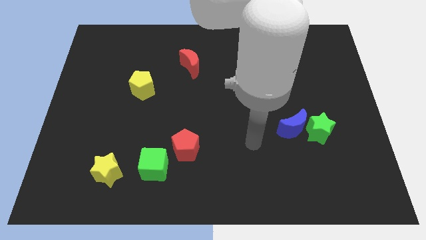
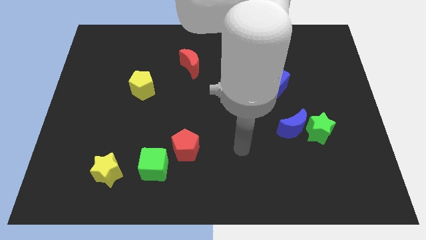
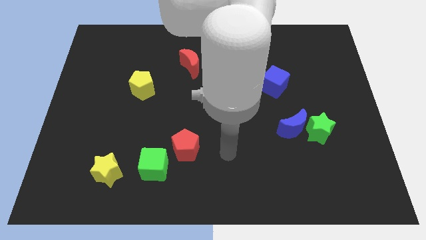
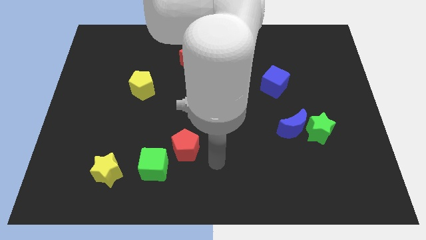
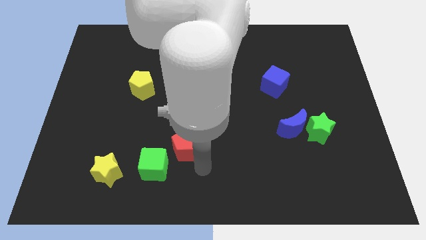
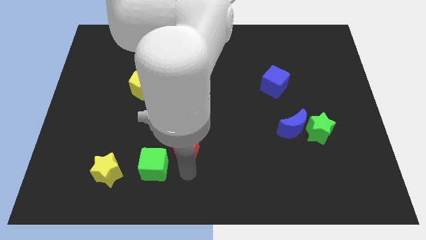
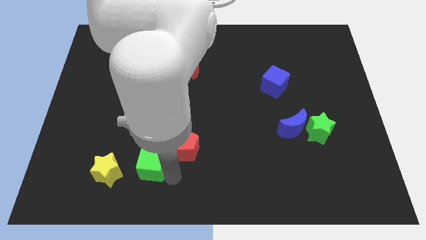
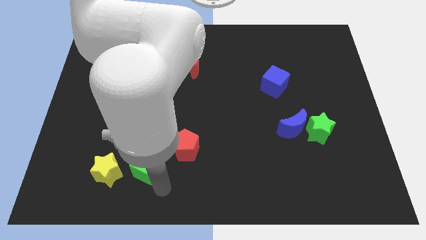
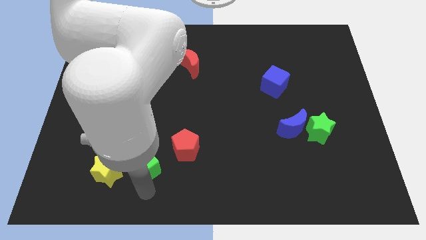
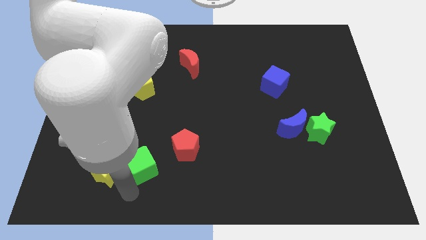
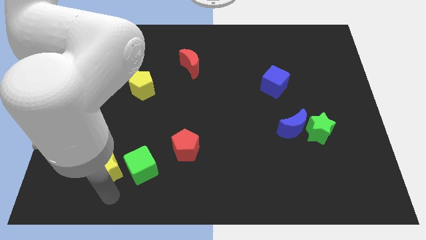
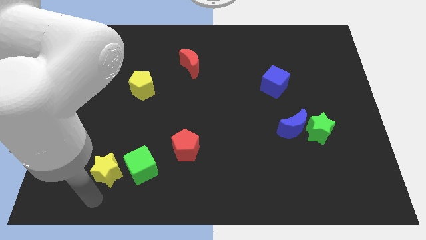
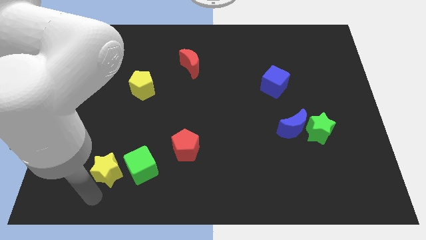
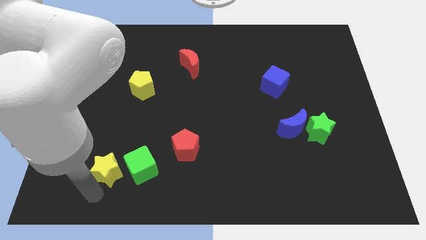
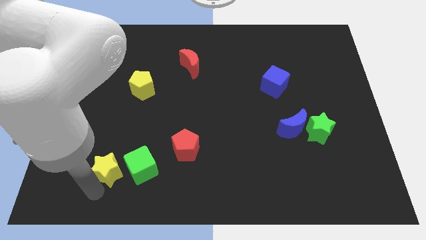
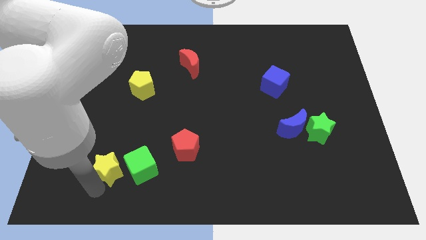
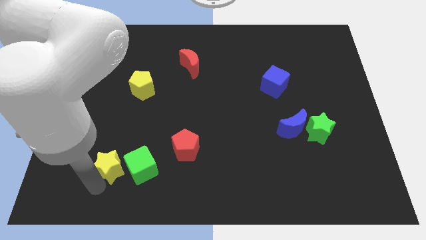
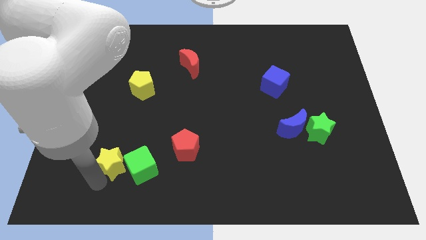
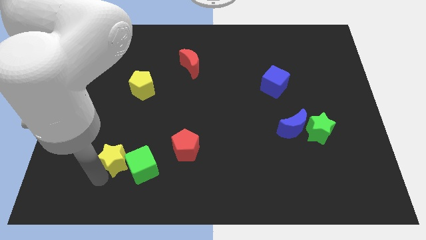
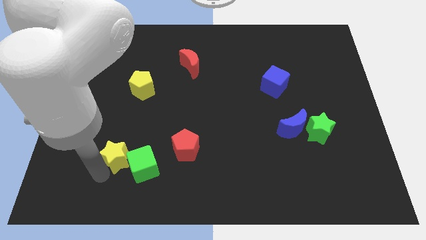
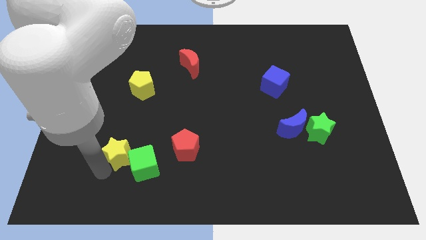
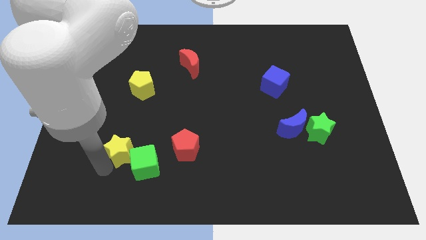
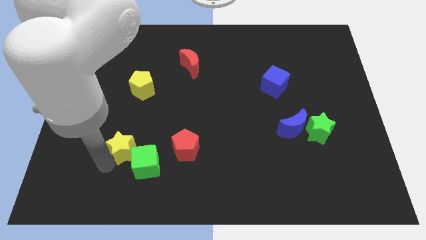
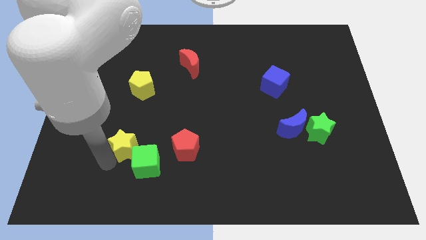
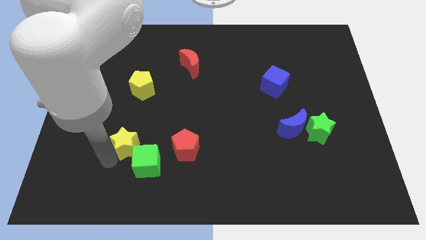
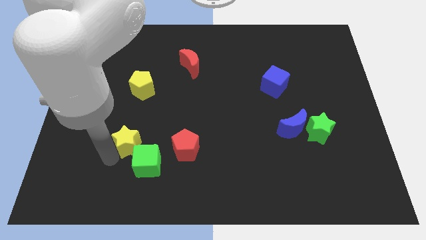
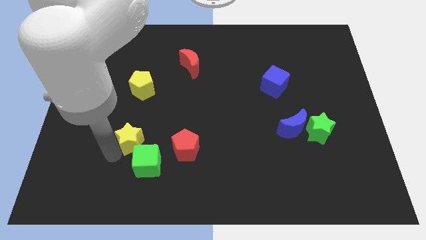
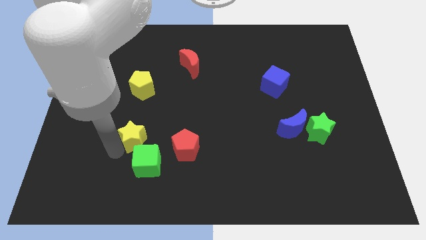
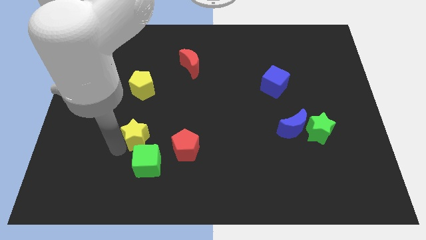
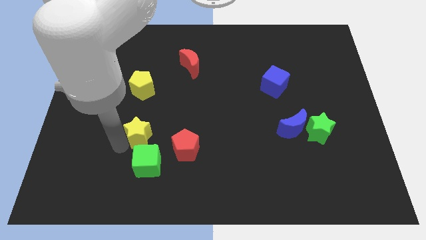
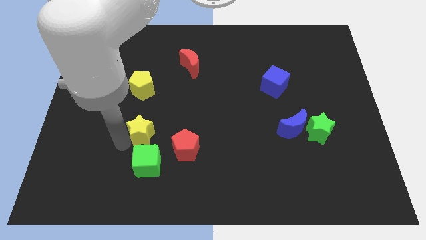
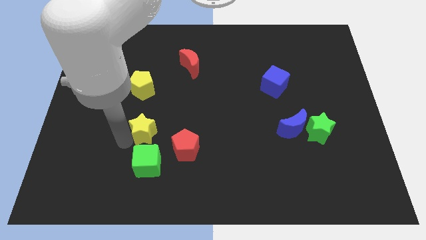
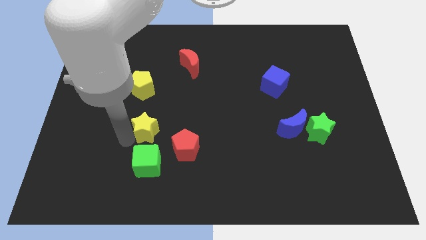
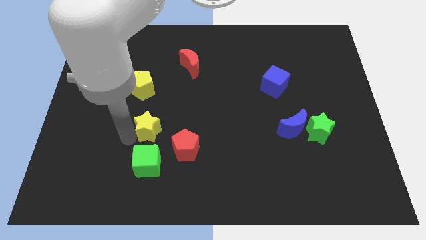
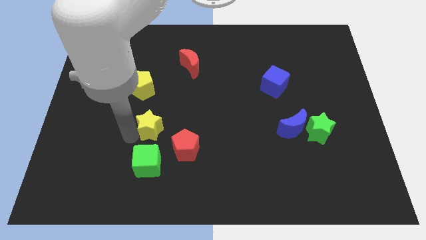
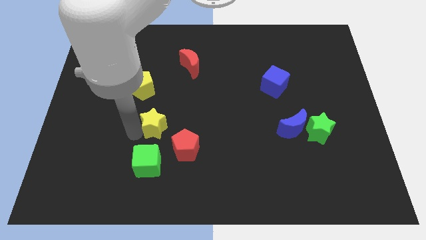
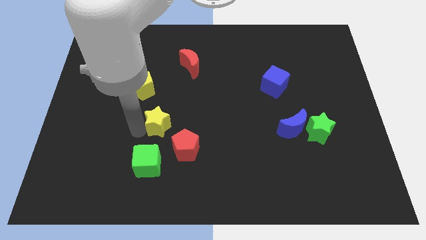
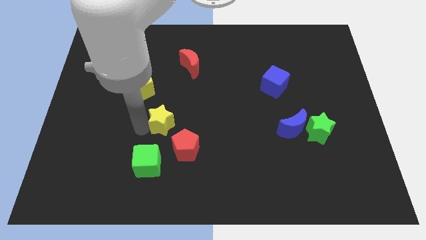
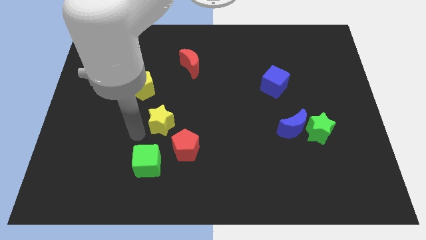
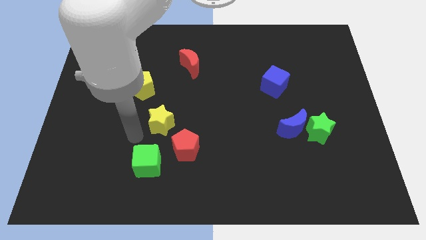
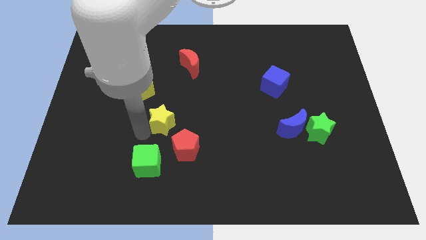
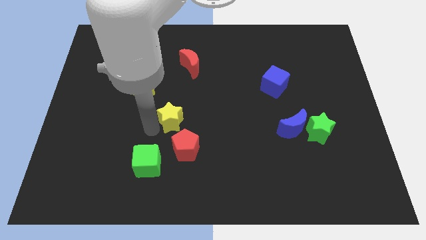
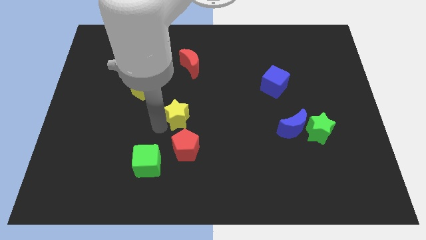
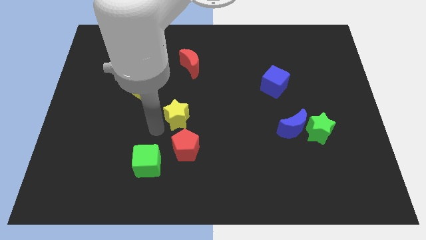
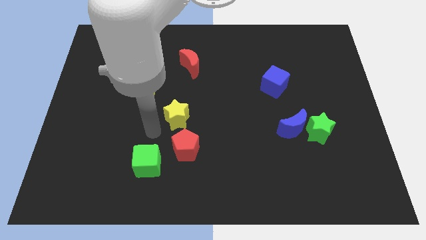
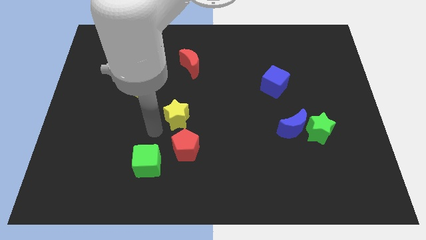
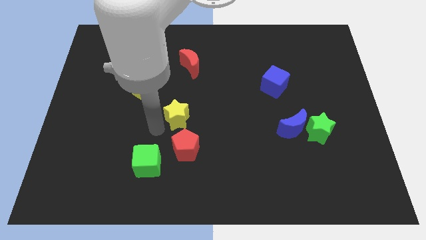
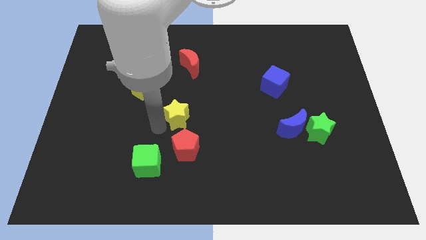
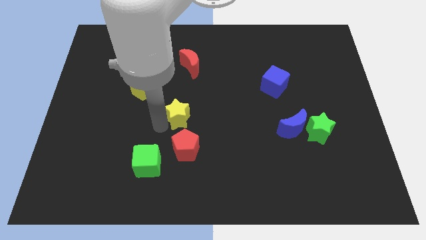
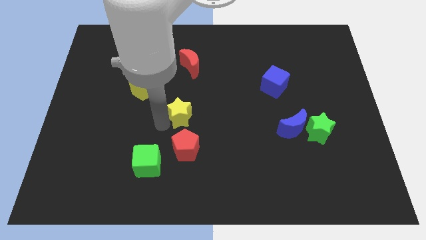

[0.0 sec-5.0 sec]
push the yellow star up and right

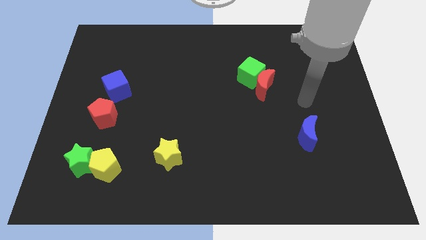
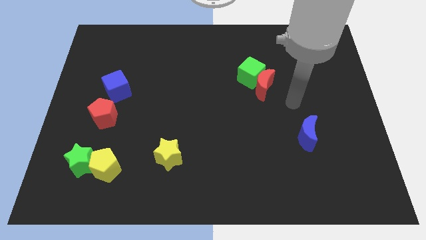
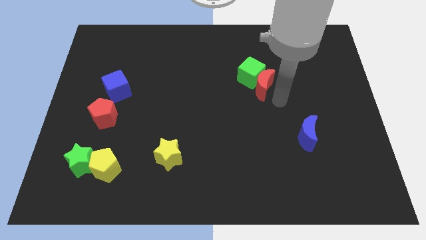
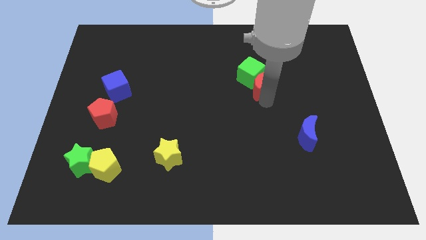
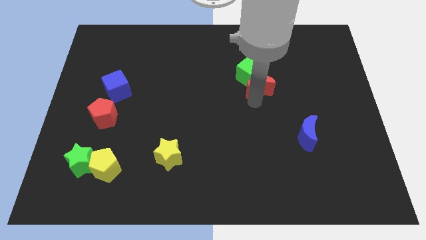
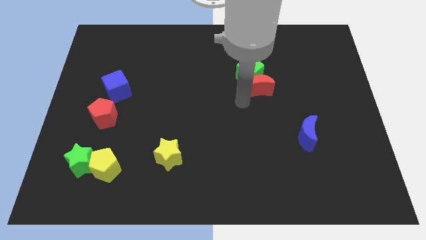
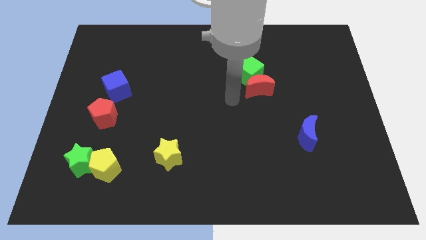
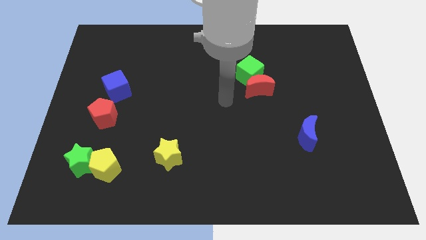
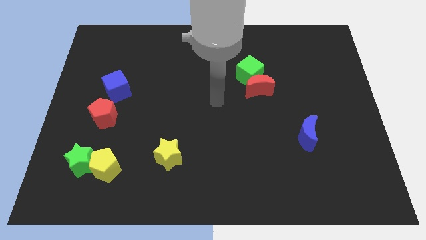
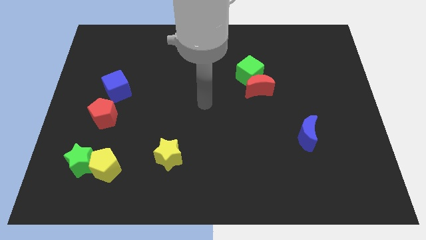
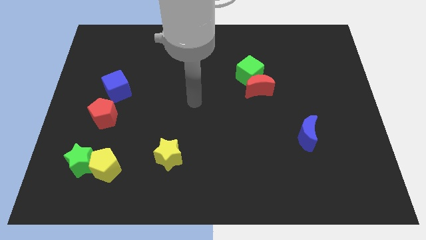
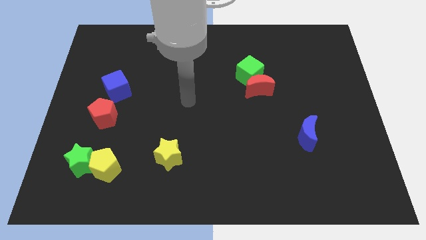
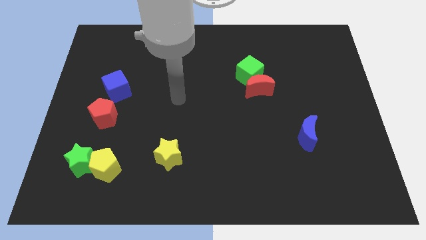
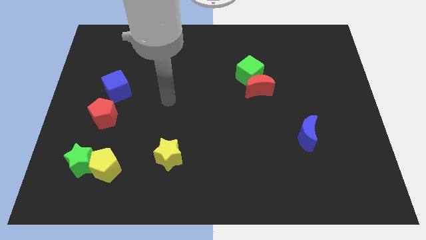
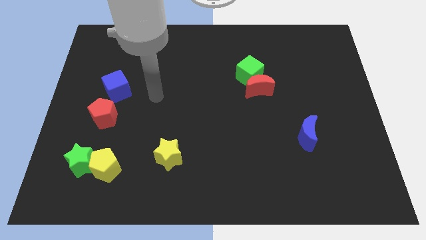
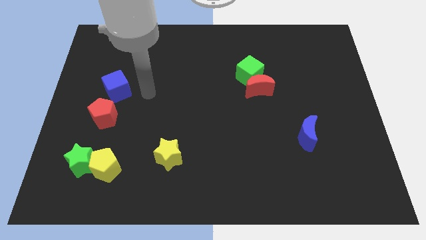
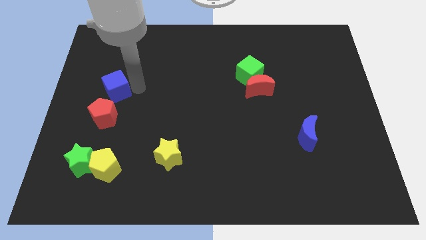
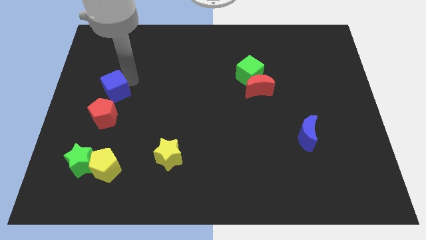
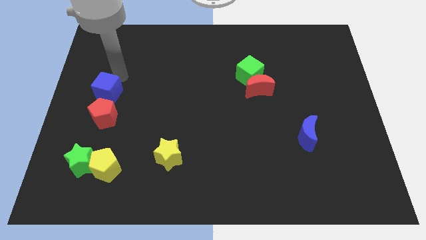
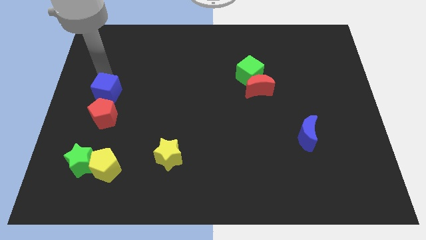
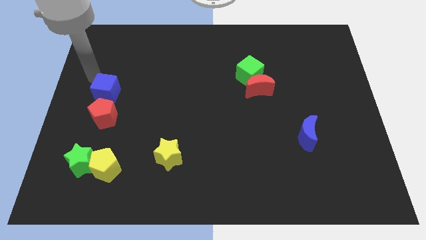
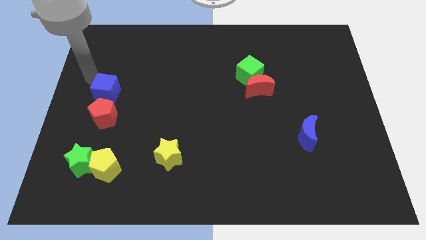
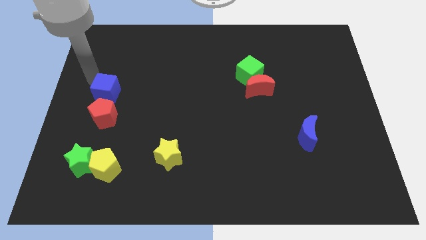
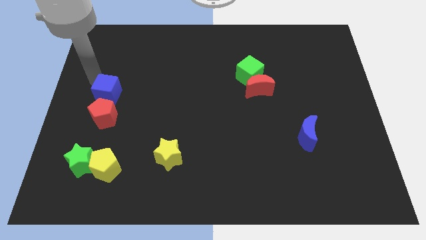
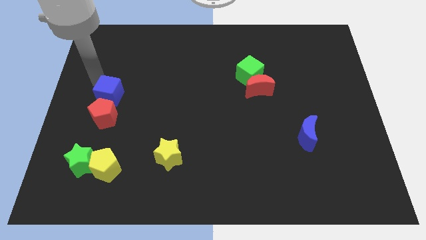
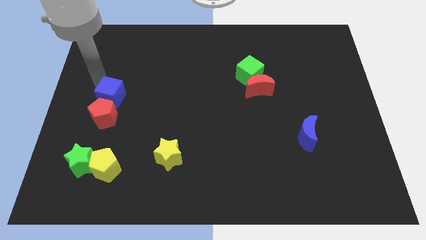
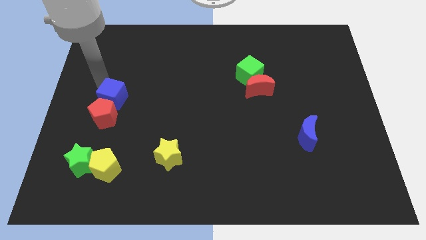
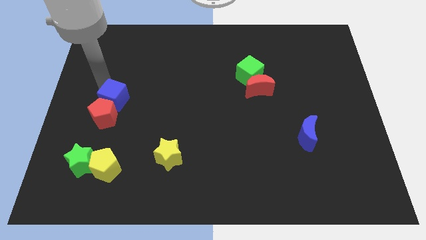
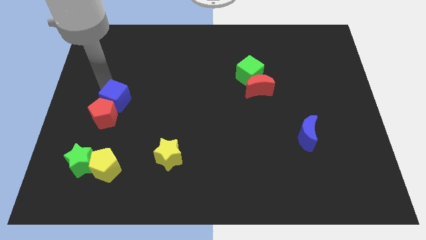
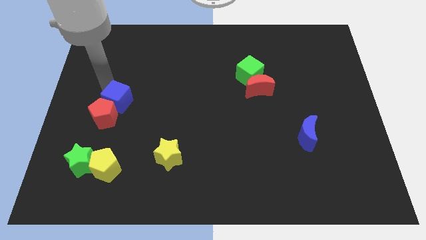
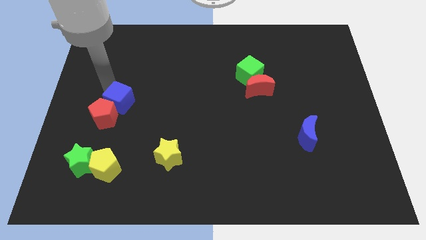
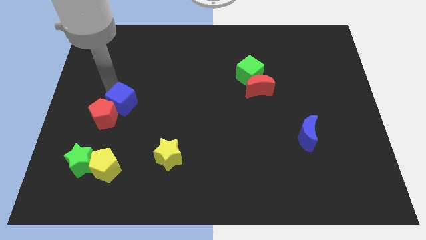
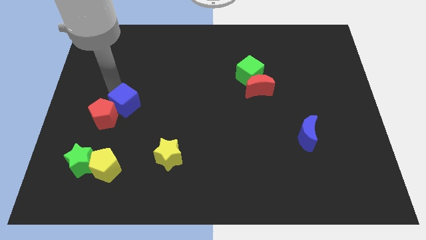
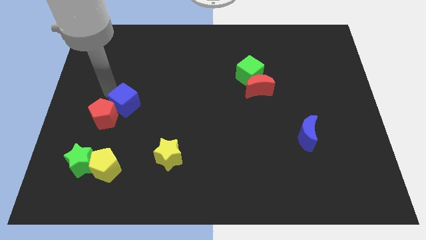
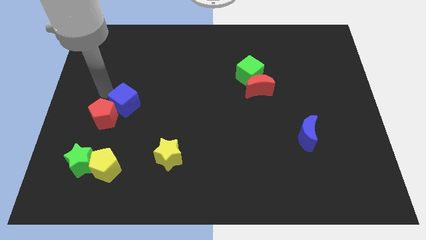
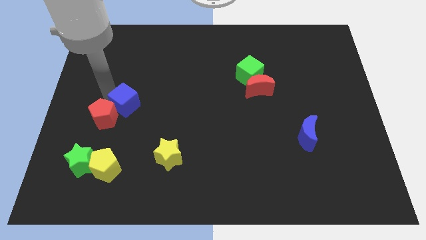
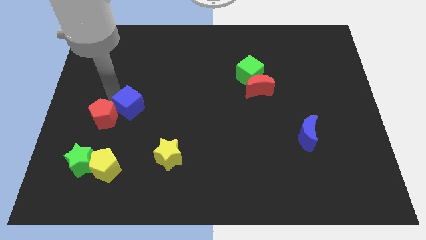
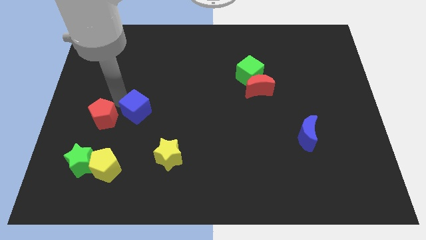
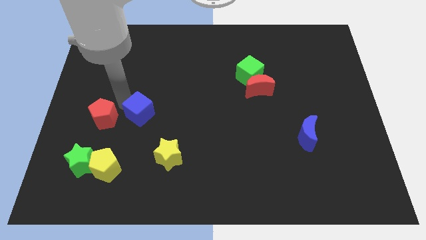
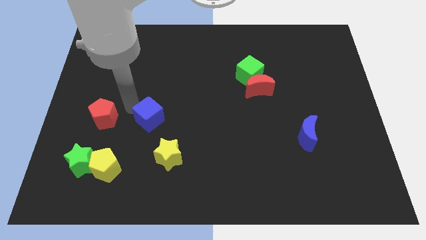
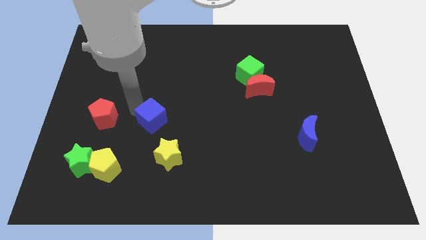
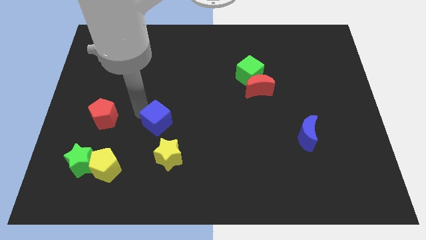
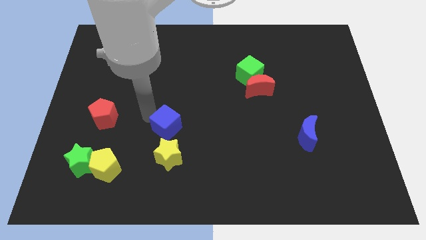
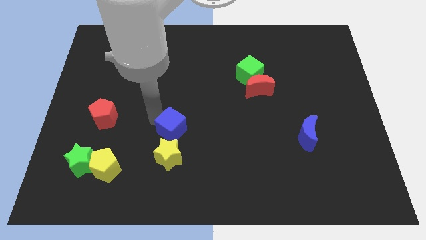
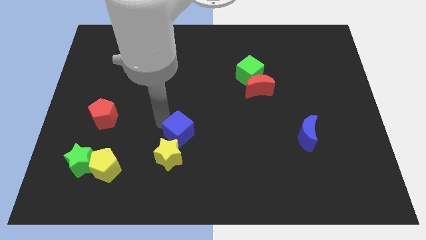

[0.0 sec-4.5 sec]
push the blue cube down and to the right diagonally
